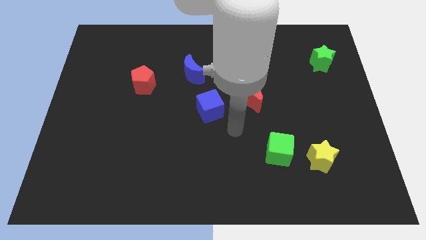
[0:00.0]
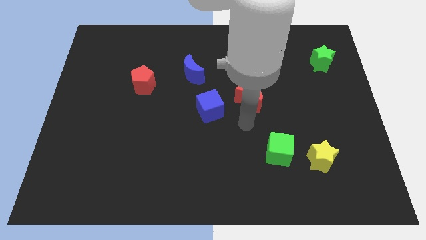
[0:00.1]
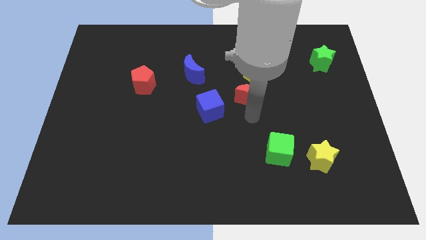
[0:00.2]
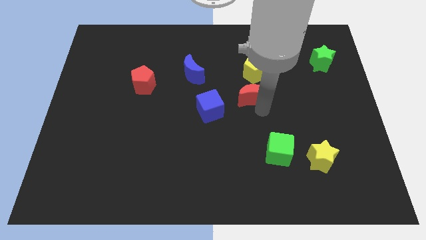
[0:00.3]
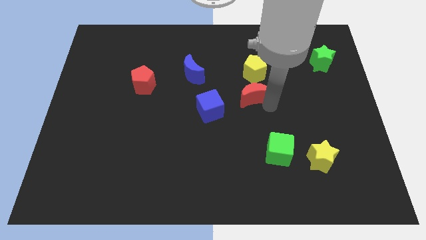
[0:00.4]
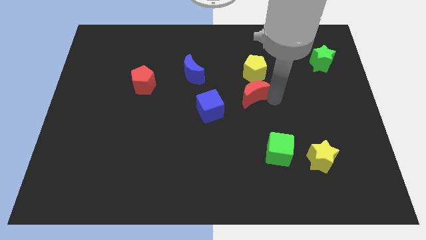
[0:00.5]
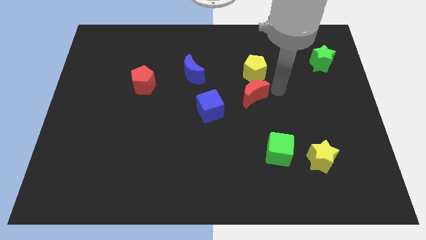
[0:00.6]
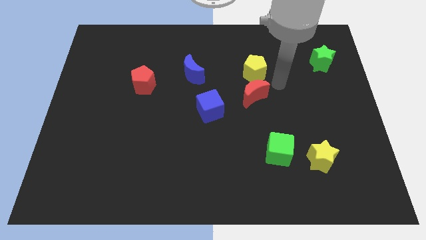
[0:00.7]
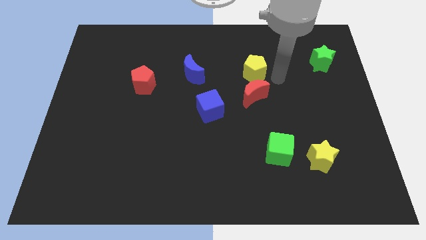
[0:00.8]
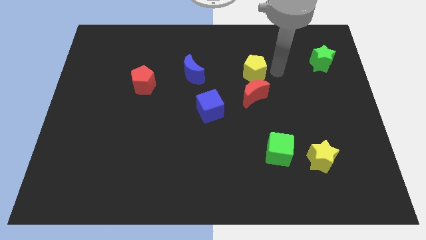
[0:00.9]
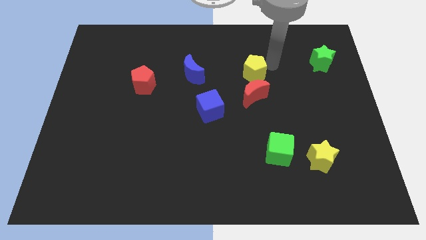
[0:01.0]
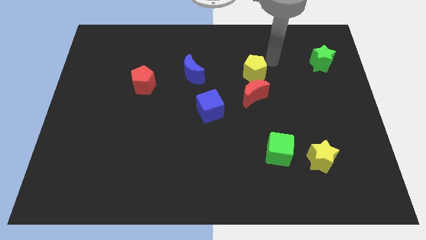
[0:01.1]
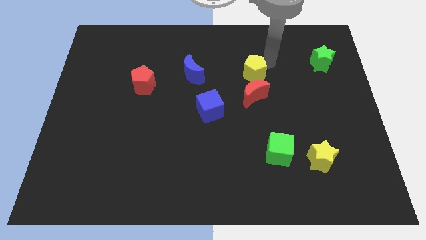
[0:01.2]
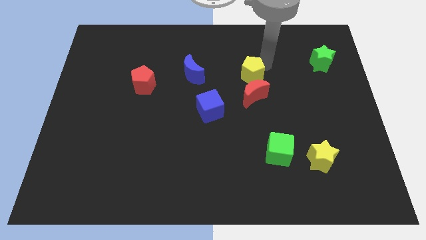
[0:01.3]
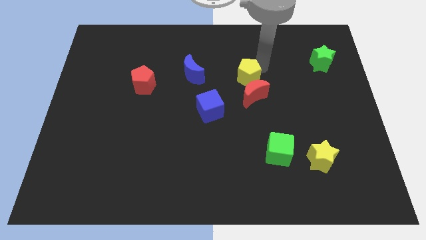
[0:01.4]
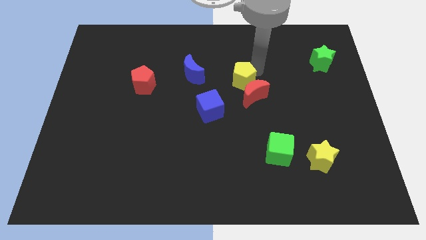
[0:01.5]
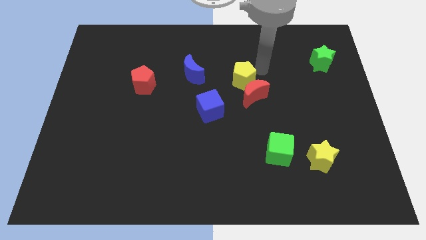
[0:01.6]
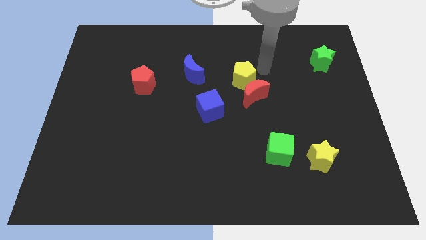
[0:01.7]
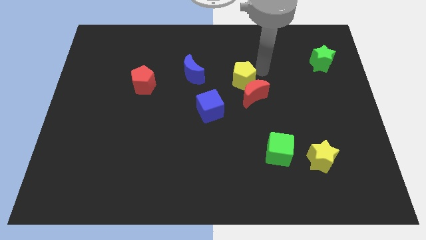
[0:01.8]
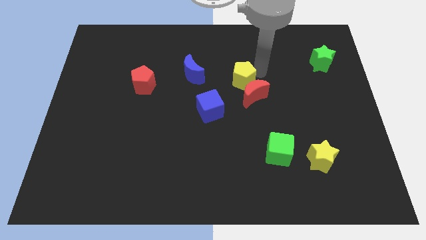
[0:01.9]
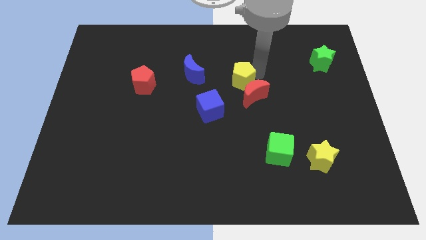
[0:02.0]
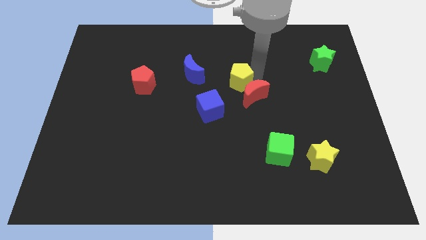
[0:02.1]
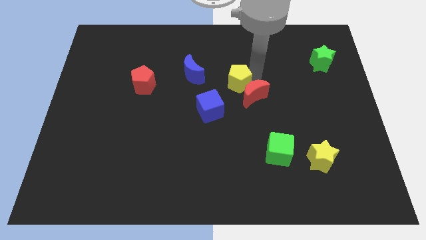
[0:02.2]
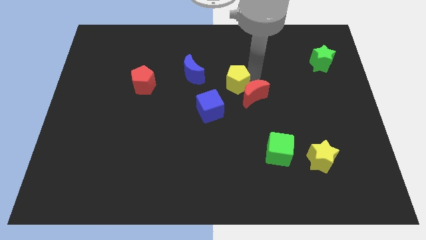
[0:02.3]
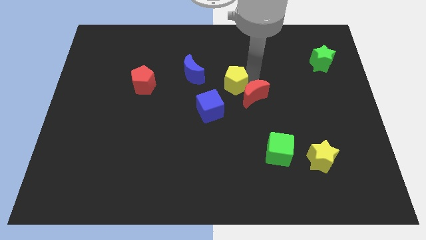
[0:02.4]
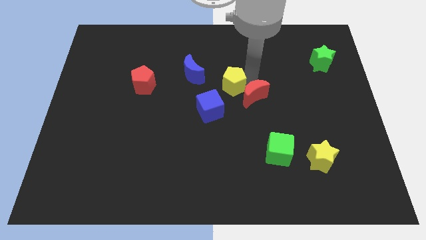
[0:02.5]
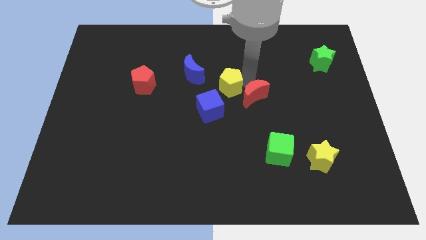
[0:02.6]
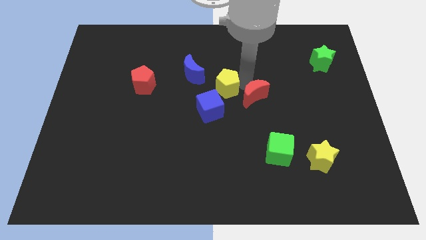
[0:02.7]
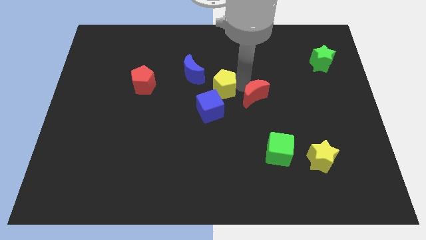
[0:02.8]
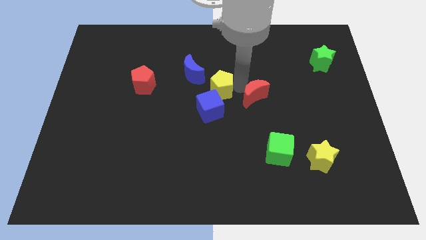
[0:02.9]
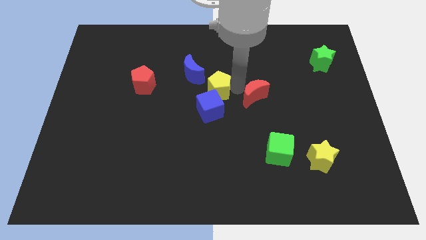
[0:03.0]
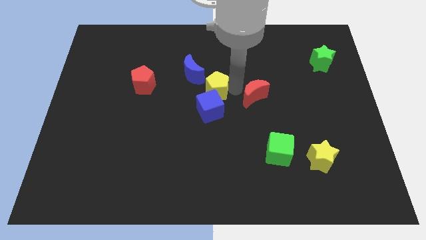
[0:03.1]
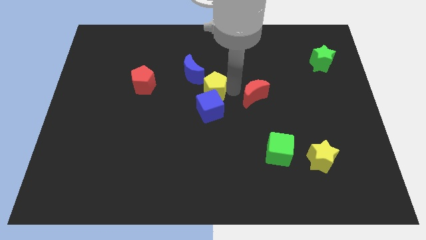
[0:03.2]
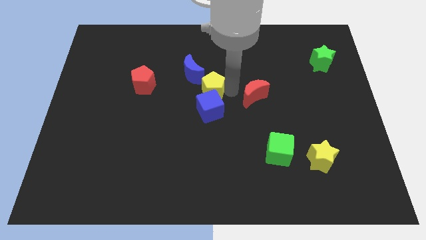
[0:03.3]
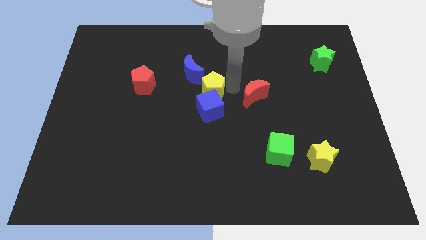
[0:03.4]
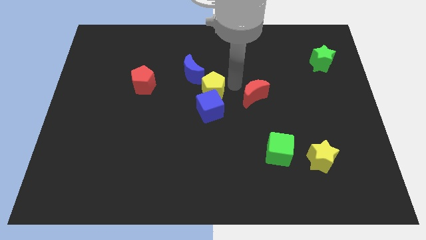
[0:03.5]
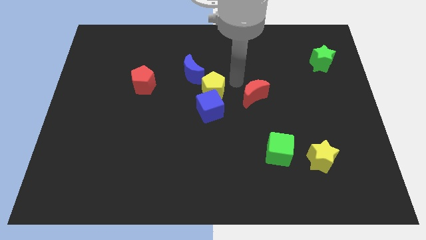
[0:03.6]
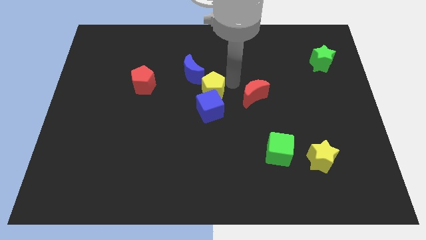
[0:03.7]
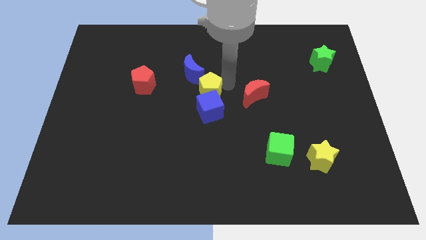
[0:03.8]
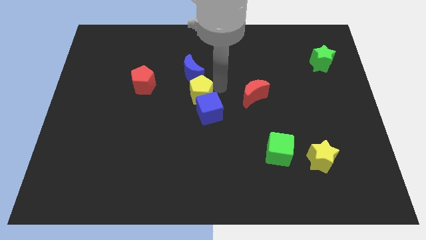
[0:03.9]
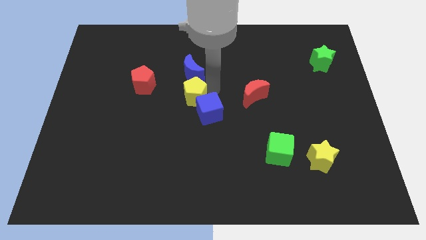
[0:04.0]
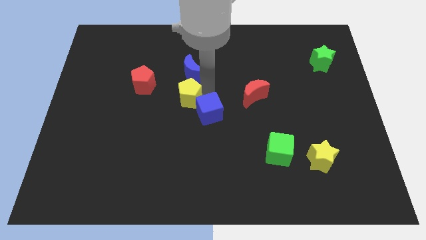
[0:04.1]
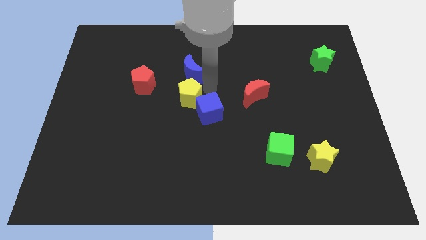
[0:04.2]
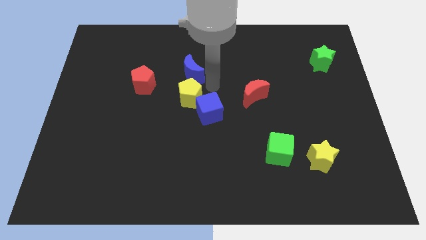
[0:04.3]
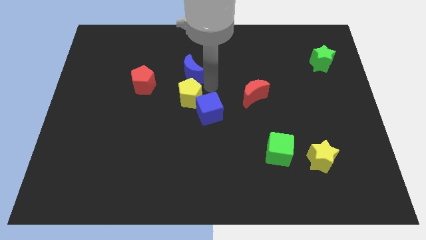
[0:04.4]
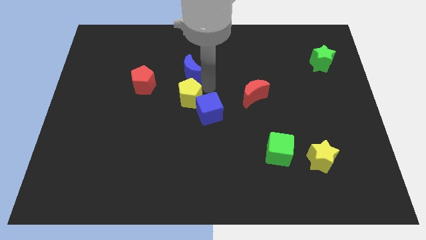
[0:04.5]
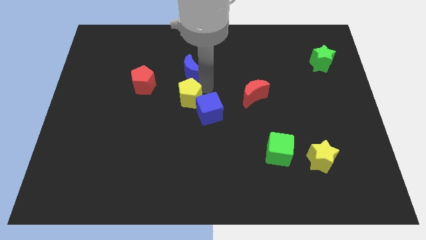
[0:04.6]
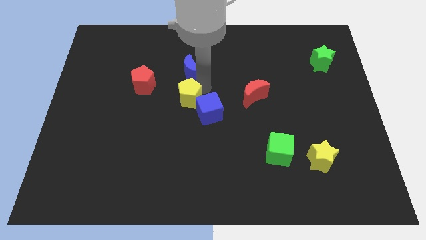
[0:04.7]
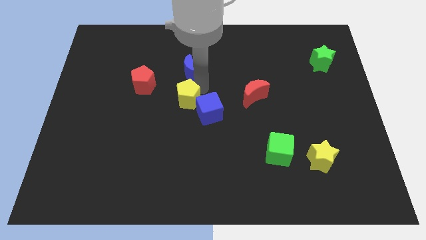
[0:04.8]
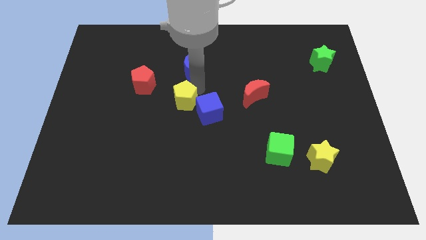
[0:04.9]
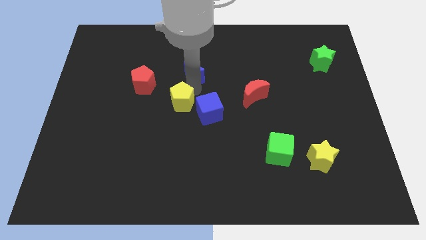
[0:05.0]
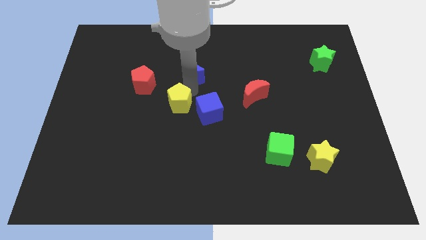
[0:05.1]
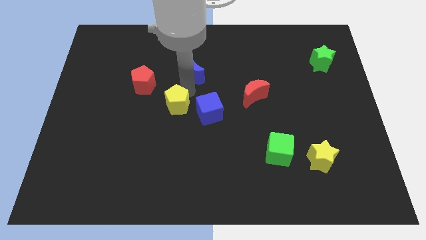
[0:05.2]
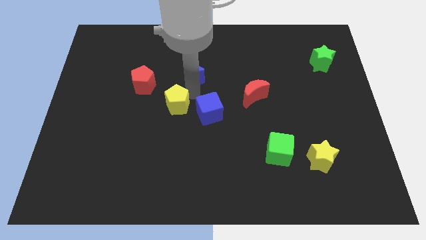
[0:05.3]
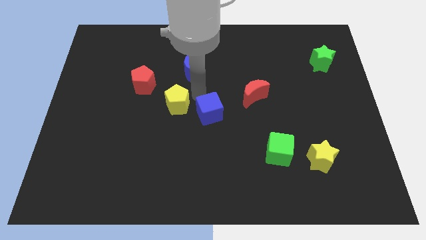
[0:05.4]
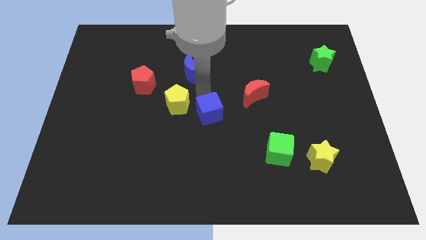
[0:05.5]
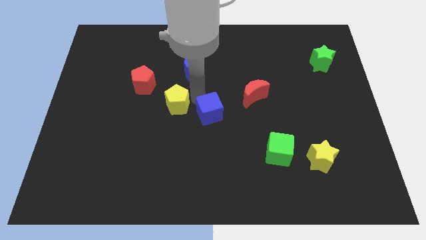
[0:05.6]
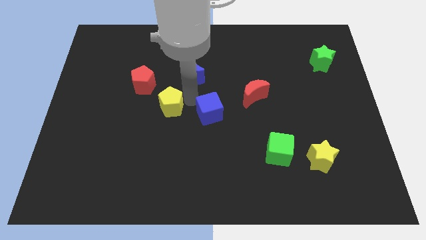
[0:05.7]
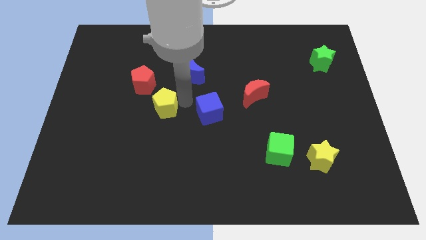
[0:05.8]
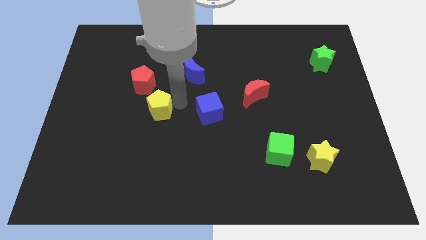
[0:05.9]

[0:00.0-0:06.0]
slide the yellow pentagon below the red pentagon

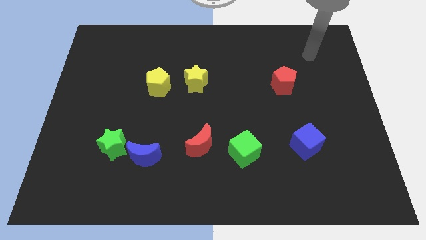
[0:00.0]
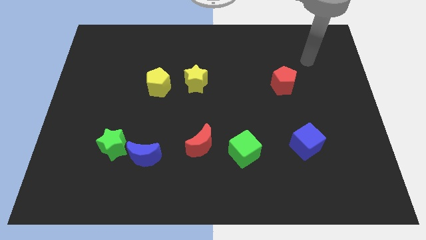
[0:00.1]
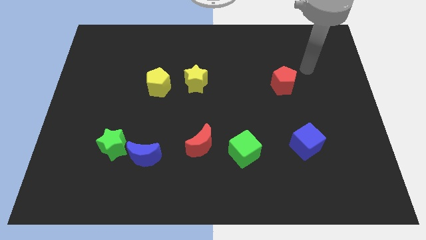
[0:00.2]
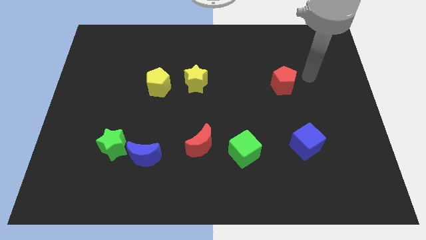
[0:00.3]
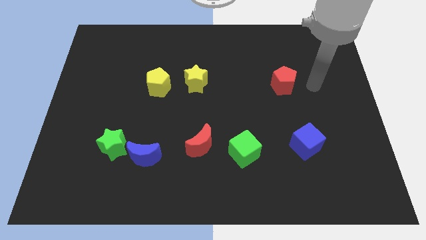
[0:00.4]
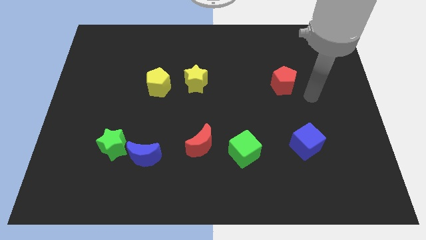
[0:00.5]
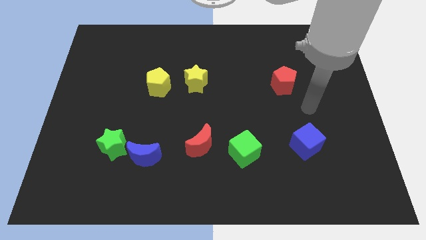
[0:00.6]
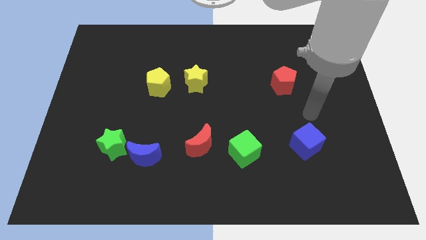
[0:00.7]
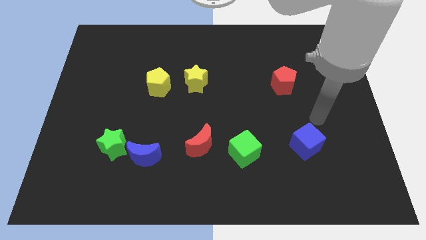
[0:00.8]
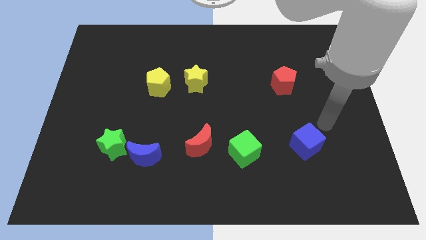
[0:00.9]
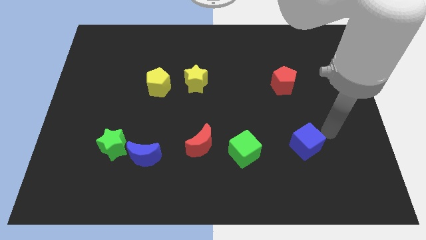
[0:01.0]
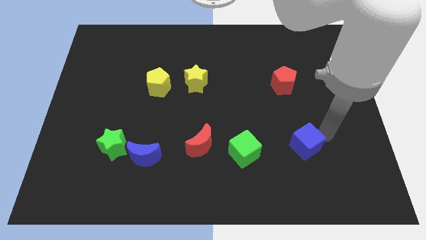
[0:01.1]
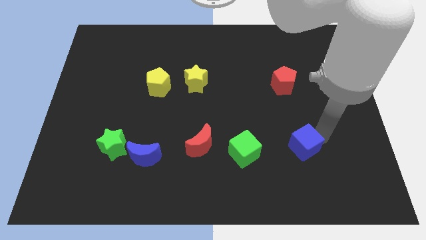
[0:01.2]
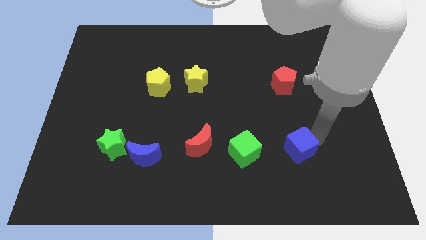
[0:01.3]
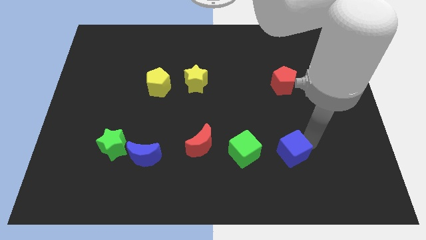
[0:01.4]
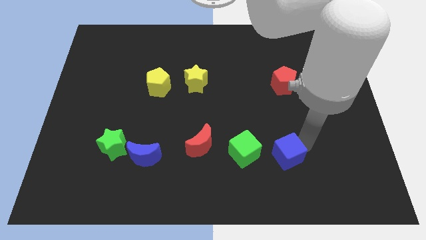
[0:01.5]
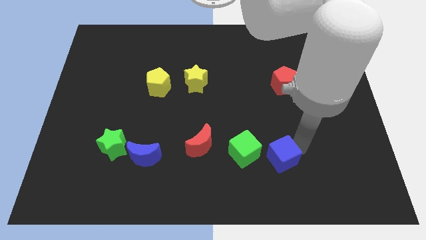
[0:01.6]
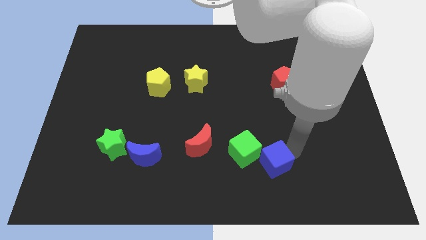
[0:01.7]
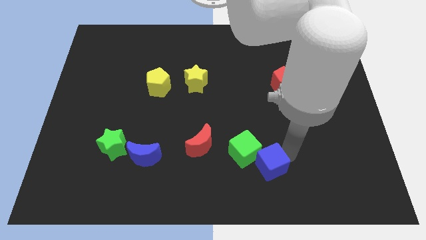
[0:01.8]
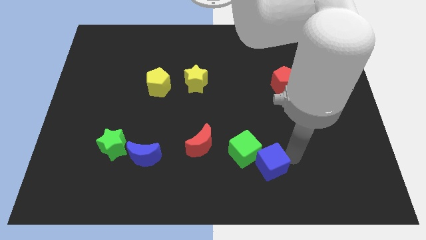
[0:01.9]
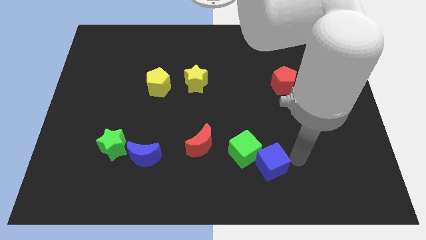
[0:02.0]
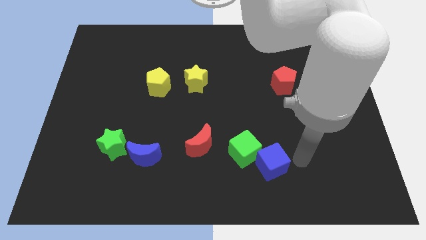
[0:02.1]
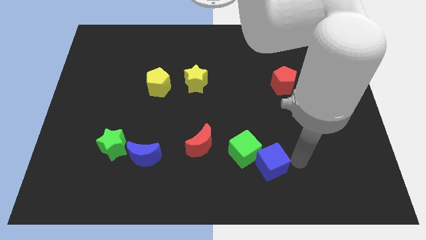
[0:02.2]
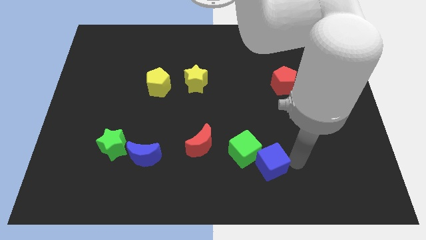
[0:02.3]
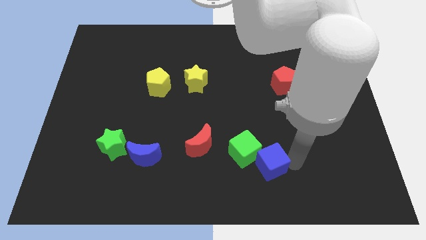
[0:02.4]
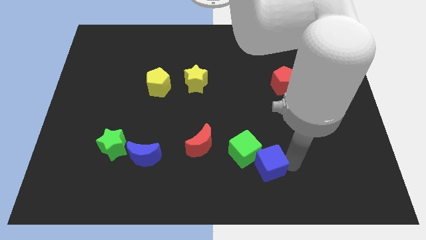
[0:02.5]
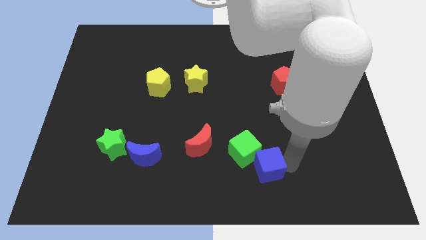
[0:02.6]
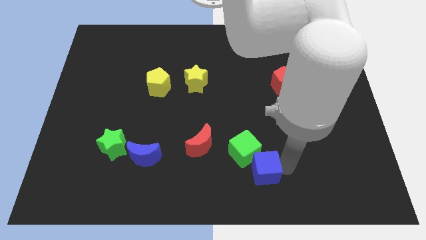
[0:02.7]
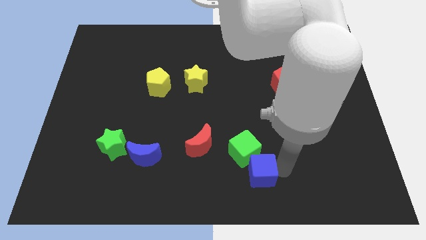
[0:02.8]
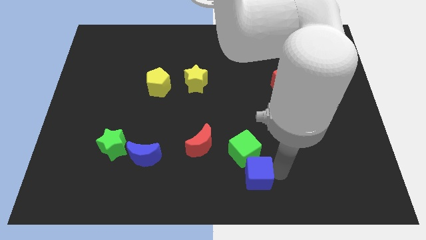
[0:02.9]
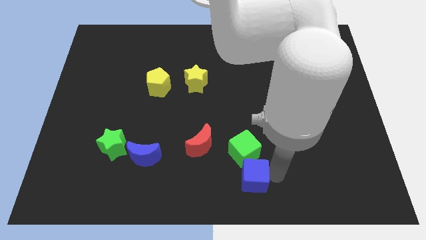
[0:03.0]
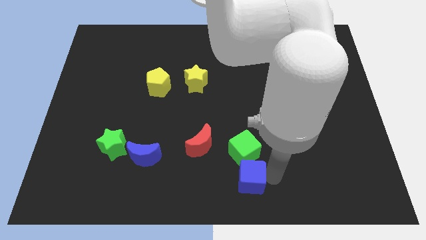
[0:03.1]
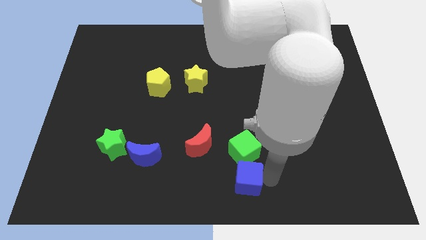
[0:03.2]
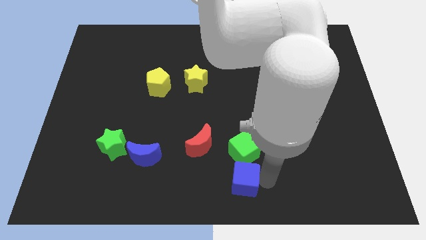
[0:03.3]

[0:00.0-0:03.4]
slide the blue cube to the bottom left side of the green cube
